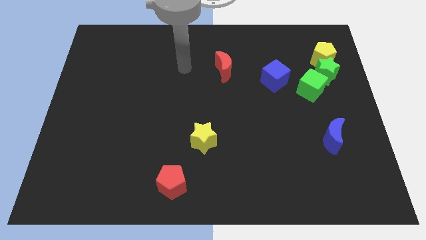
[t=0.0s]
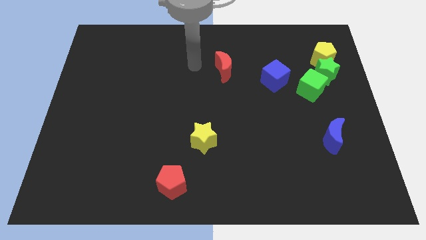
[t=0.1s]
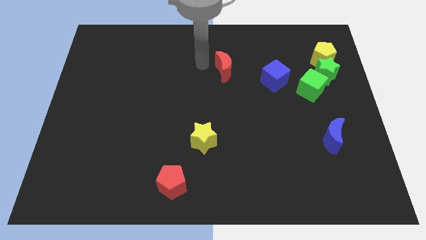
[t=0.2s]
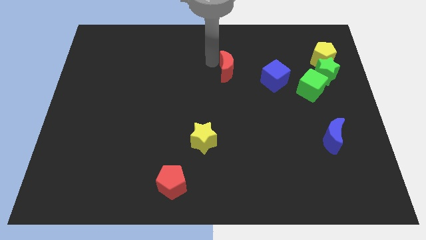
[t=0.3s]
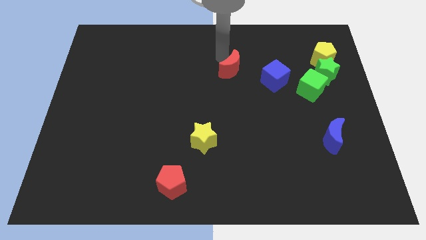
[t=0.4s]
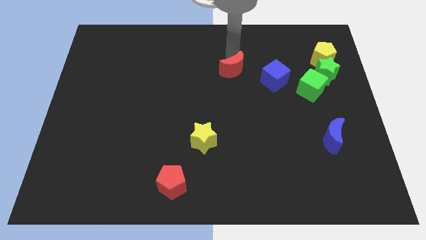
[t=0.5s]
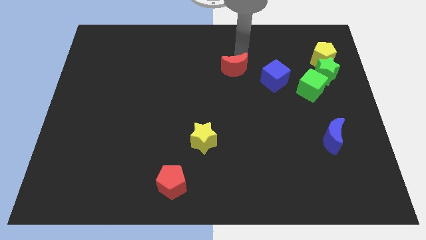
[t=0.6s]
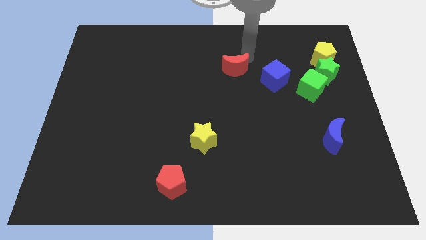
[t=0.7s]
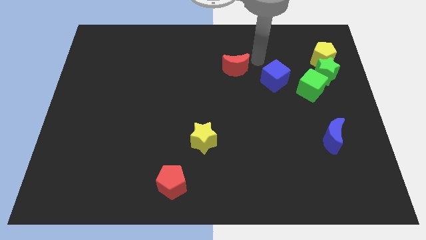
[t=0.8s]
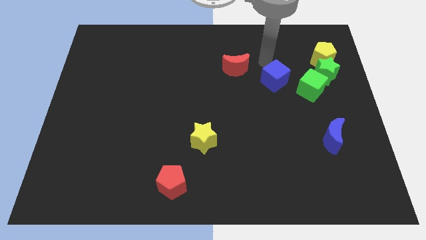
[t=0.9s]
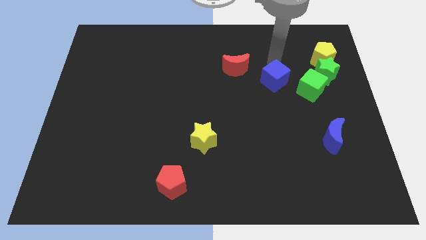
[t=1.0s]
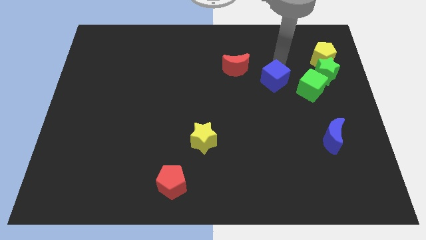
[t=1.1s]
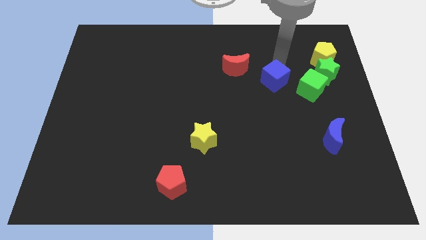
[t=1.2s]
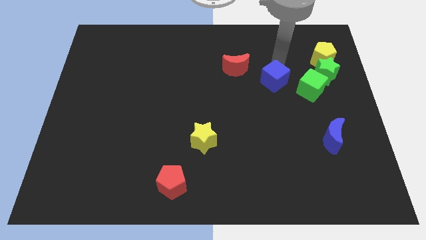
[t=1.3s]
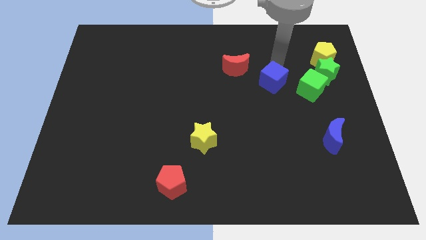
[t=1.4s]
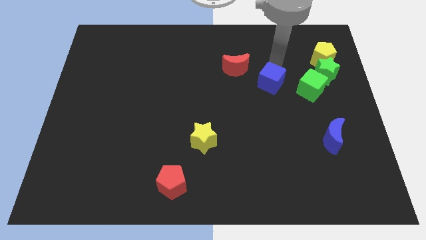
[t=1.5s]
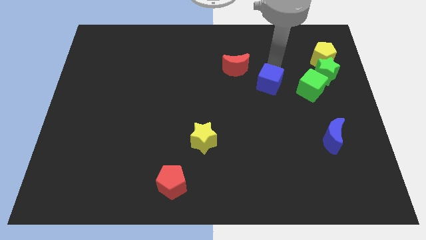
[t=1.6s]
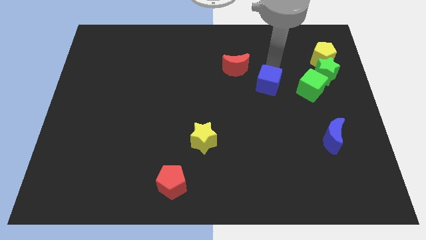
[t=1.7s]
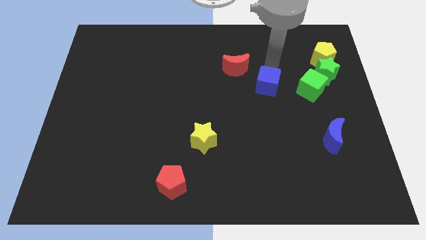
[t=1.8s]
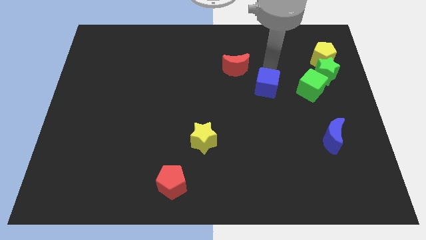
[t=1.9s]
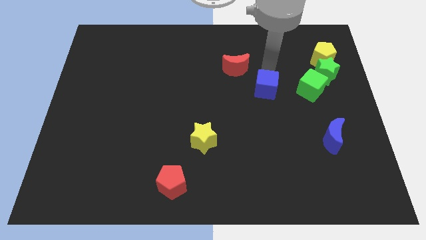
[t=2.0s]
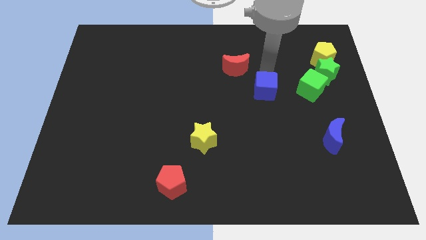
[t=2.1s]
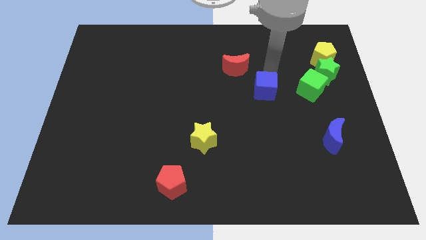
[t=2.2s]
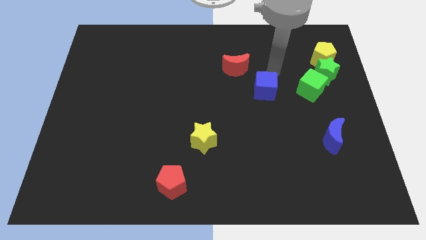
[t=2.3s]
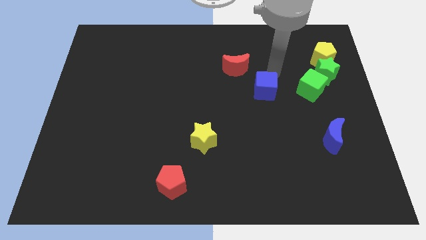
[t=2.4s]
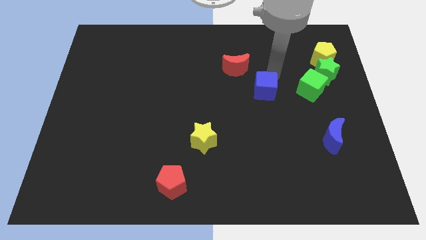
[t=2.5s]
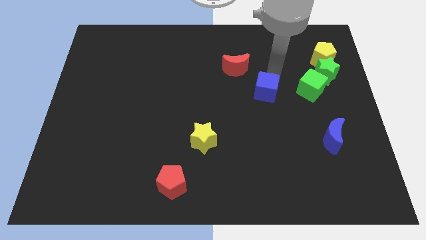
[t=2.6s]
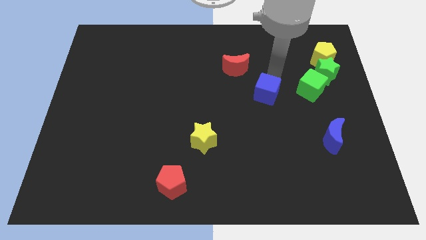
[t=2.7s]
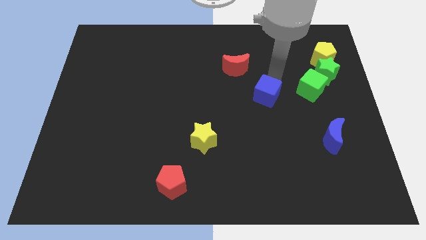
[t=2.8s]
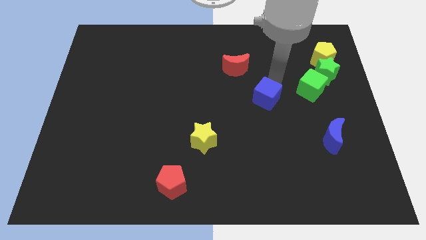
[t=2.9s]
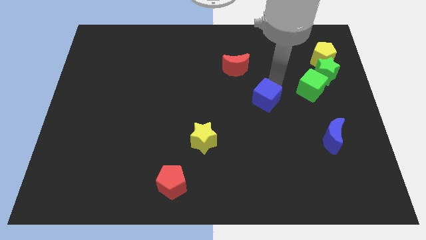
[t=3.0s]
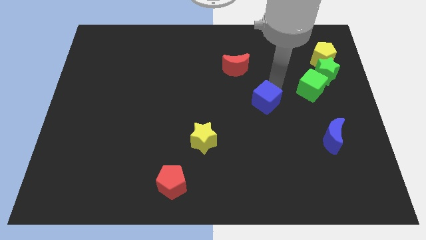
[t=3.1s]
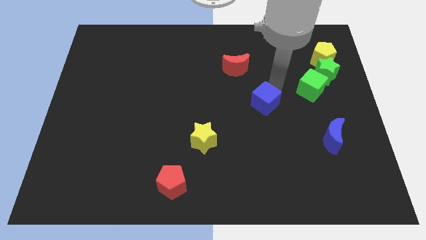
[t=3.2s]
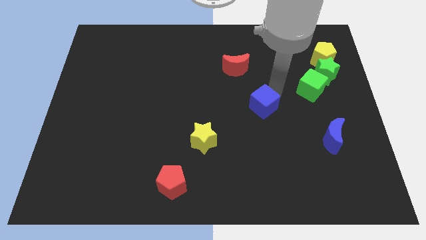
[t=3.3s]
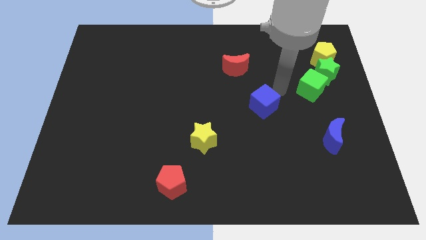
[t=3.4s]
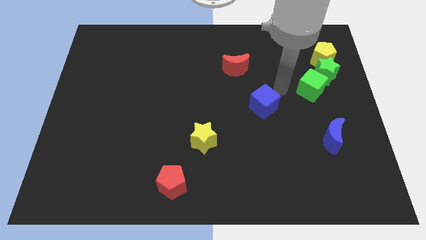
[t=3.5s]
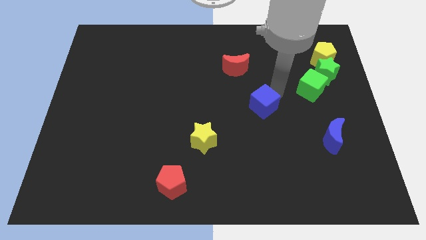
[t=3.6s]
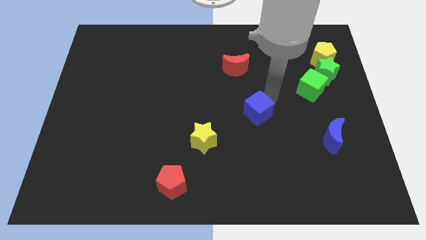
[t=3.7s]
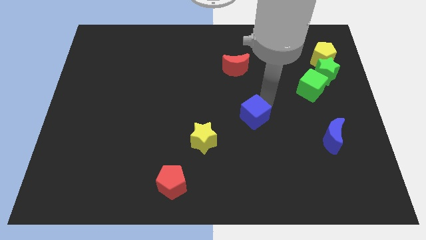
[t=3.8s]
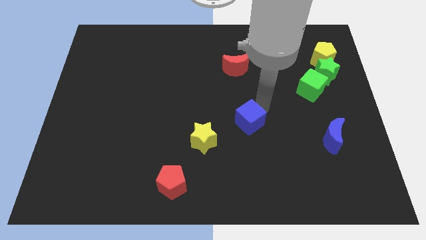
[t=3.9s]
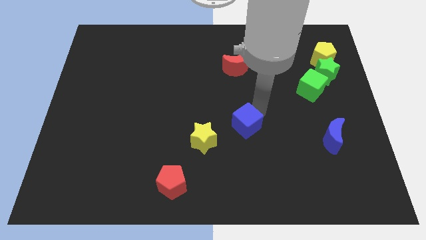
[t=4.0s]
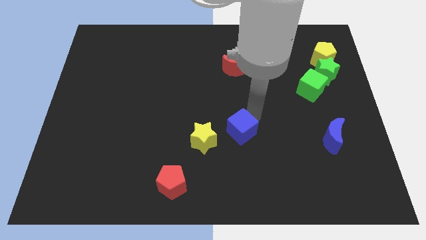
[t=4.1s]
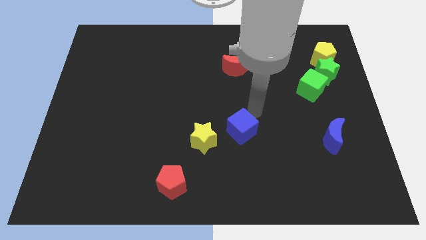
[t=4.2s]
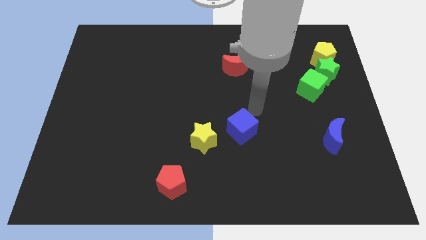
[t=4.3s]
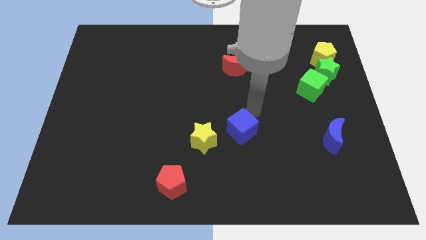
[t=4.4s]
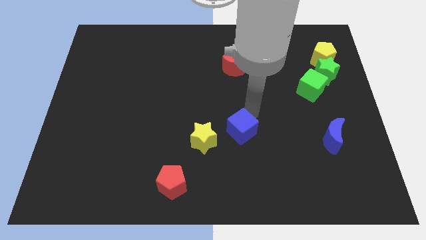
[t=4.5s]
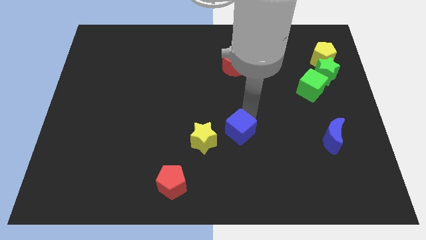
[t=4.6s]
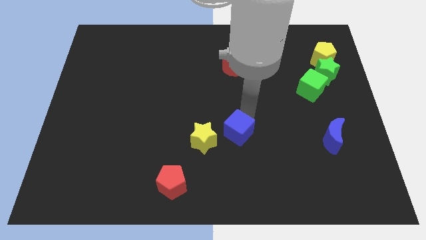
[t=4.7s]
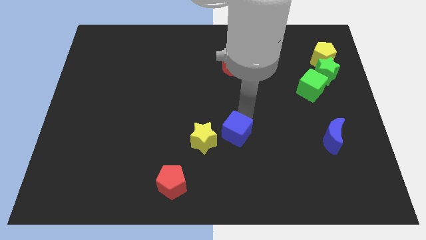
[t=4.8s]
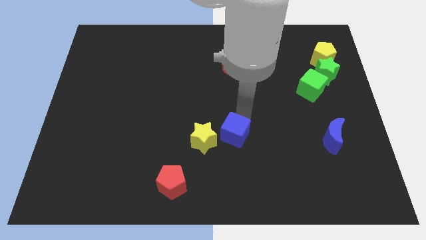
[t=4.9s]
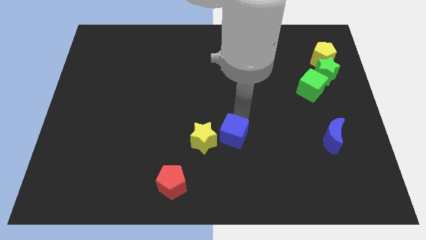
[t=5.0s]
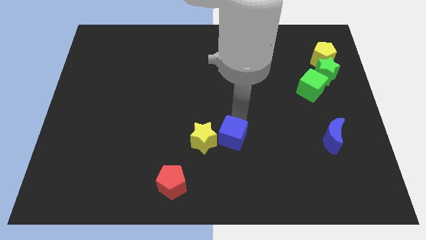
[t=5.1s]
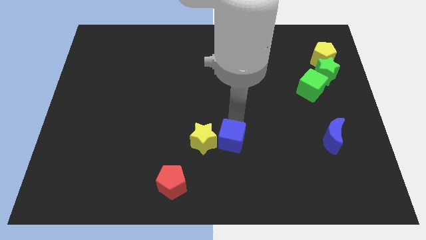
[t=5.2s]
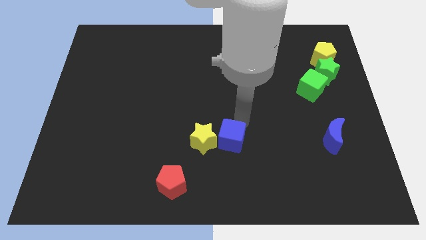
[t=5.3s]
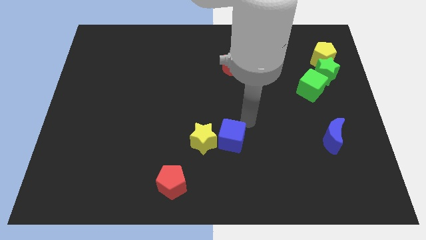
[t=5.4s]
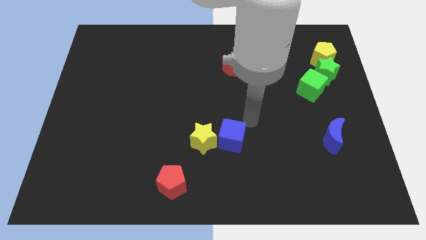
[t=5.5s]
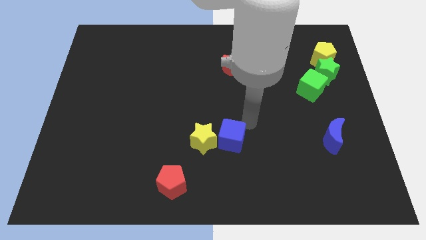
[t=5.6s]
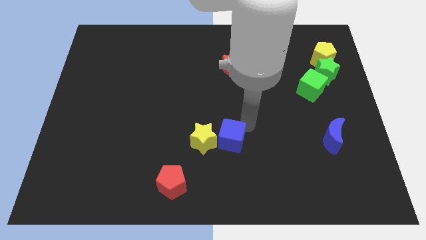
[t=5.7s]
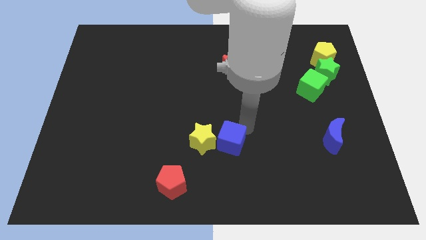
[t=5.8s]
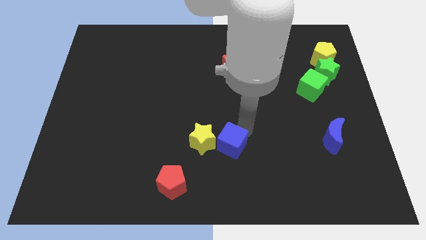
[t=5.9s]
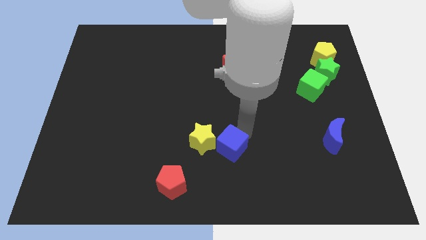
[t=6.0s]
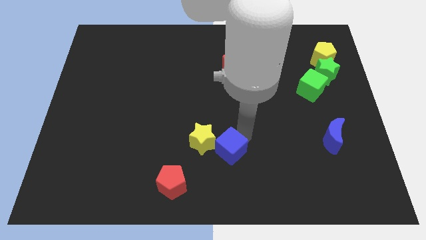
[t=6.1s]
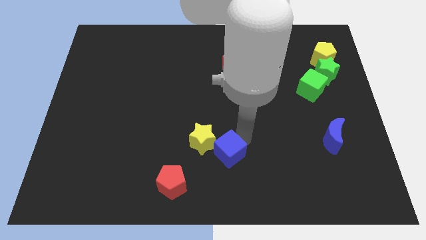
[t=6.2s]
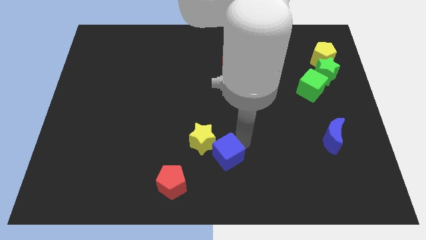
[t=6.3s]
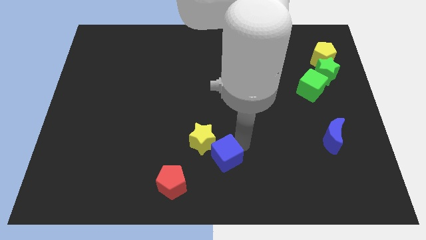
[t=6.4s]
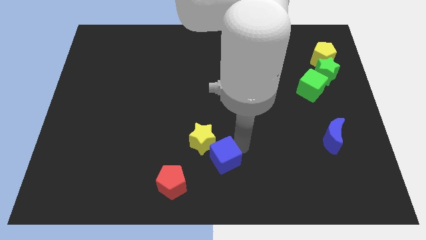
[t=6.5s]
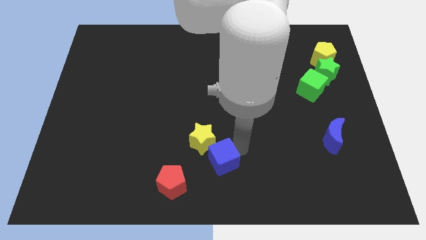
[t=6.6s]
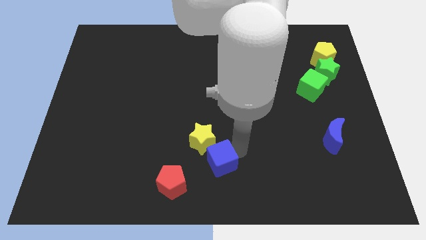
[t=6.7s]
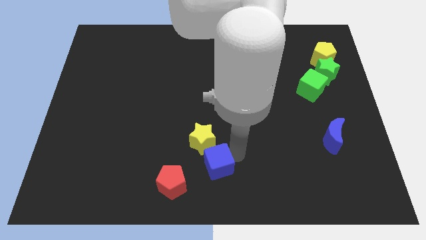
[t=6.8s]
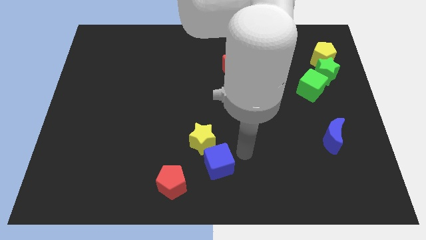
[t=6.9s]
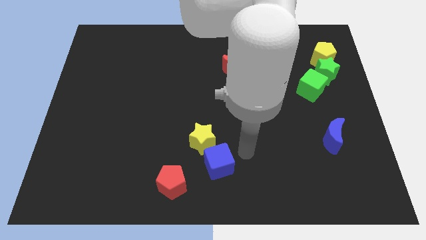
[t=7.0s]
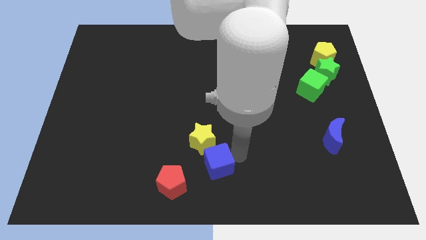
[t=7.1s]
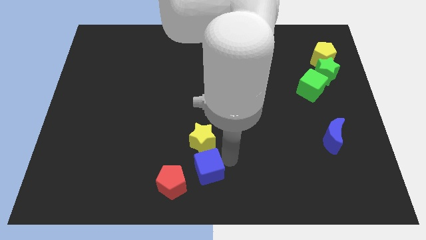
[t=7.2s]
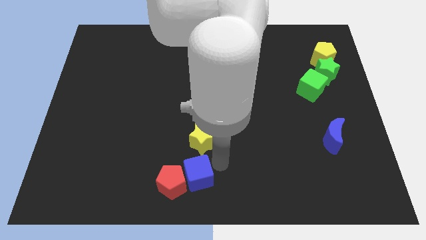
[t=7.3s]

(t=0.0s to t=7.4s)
push the blue cube close to the red pentagon
